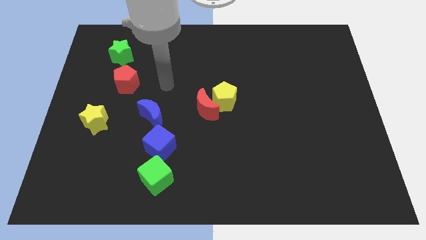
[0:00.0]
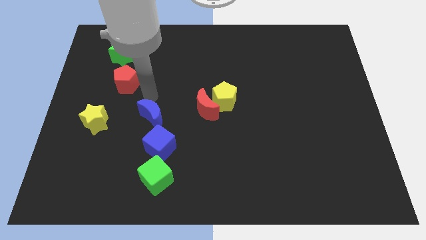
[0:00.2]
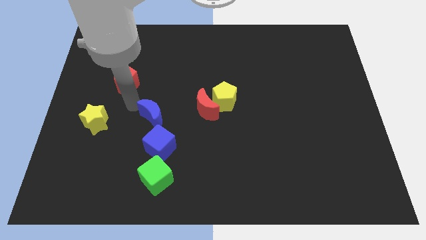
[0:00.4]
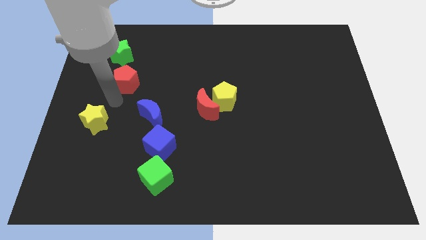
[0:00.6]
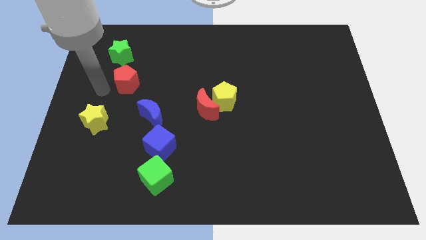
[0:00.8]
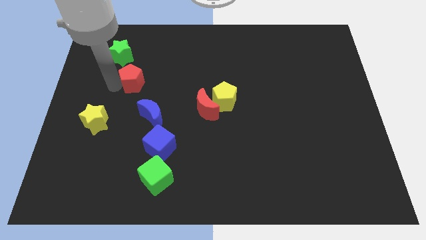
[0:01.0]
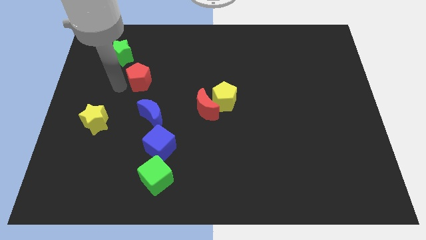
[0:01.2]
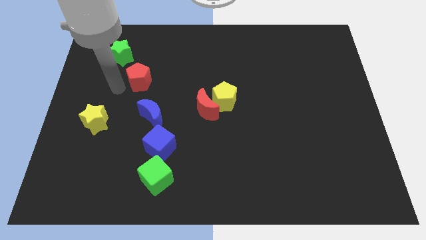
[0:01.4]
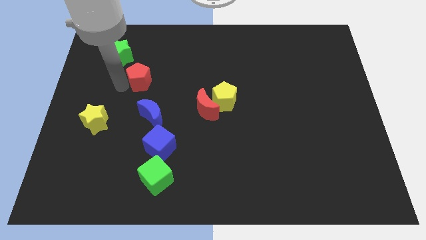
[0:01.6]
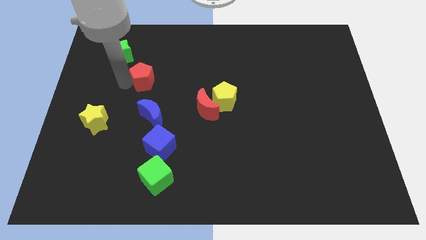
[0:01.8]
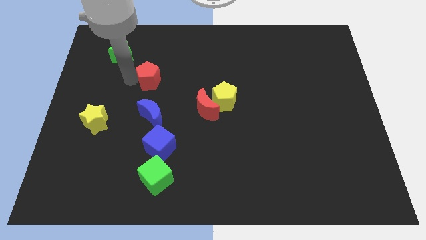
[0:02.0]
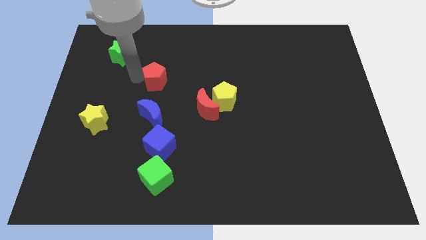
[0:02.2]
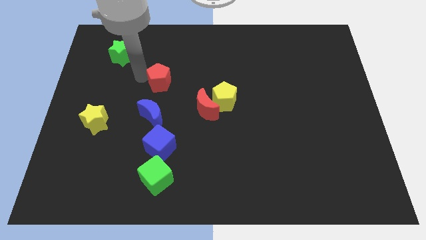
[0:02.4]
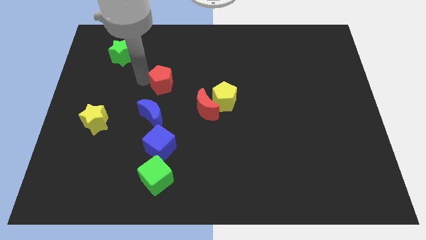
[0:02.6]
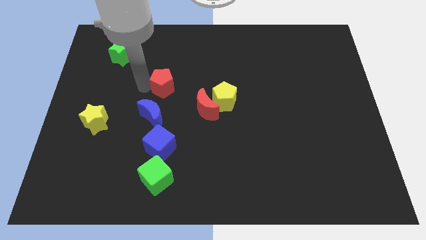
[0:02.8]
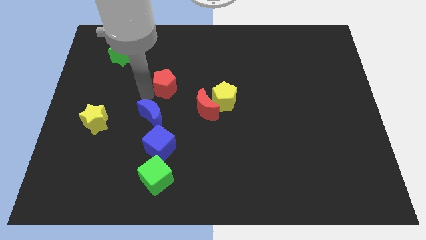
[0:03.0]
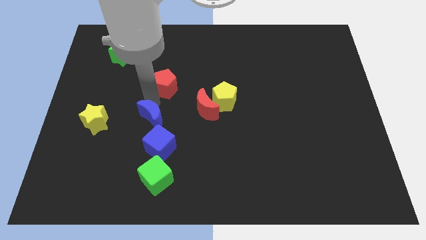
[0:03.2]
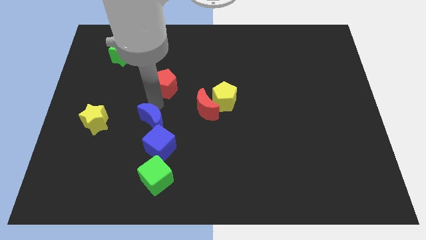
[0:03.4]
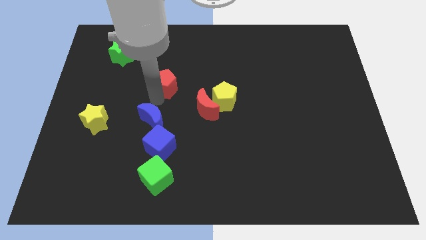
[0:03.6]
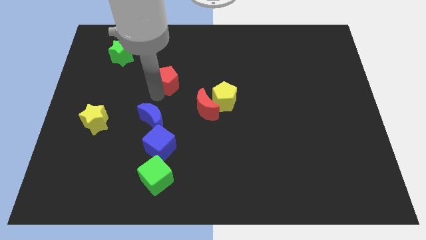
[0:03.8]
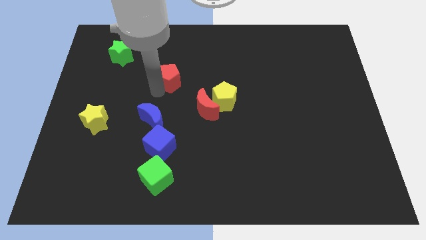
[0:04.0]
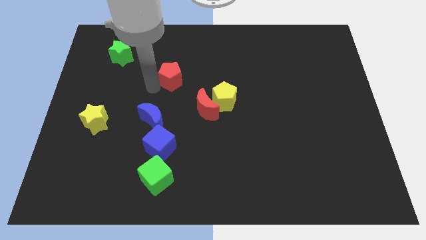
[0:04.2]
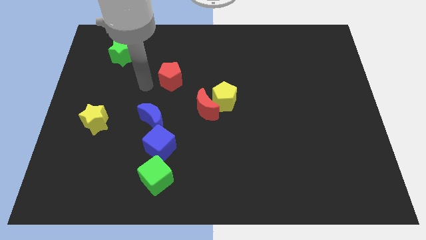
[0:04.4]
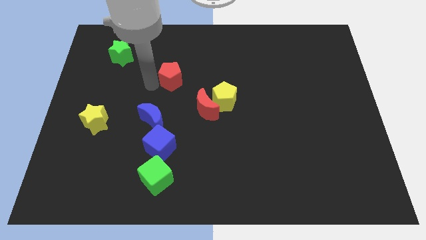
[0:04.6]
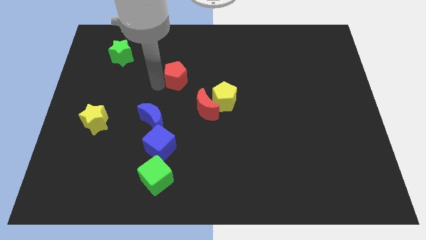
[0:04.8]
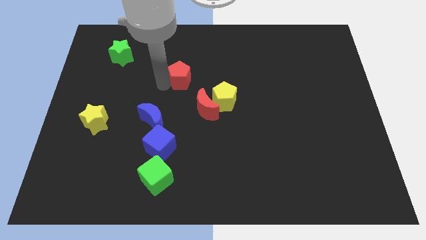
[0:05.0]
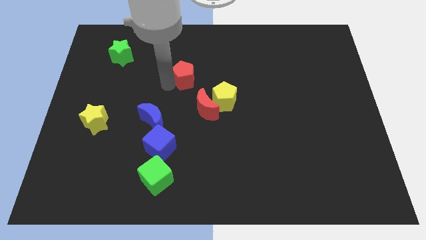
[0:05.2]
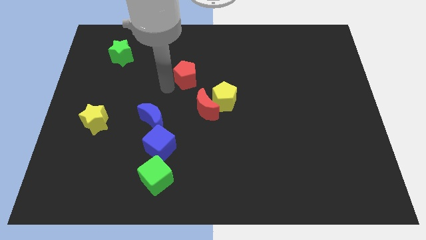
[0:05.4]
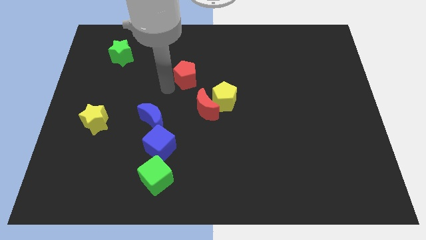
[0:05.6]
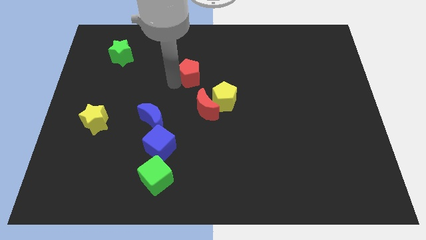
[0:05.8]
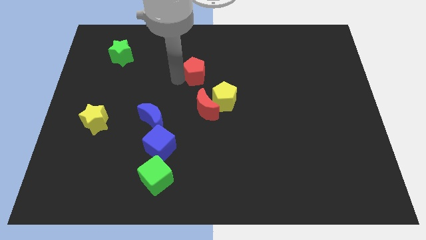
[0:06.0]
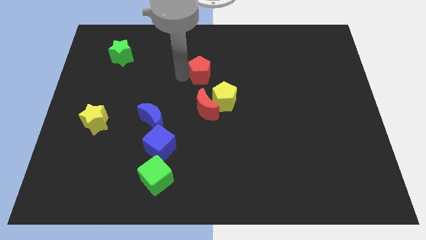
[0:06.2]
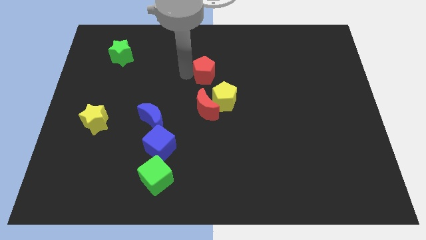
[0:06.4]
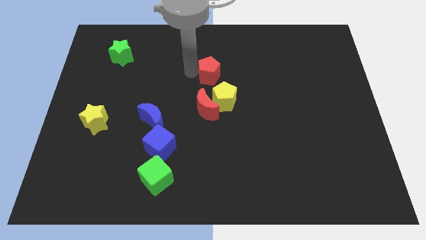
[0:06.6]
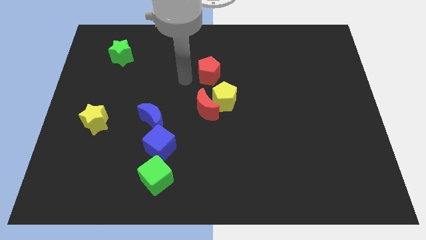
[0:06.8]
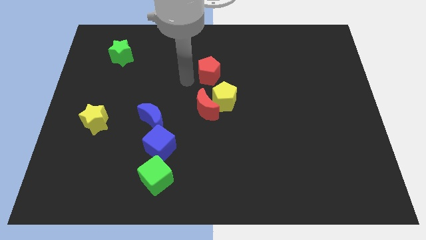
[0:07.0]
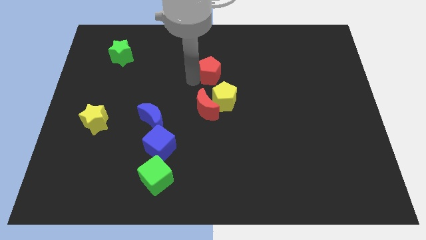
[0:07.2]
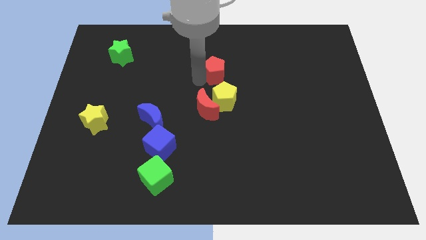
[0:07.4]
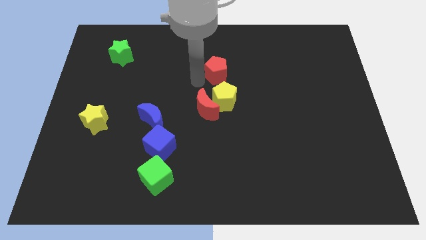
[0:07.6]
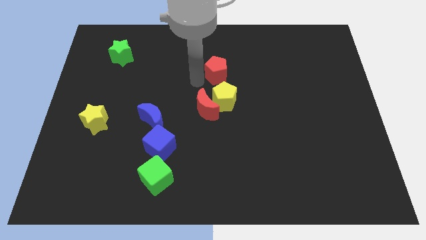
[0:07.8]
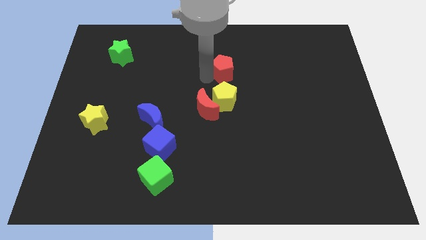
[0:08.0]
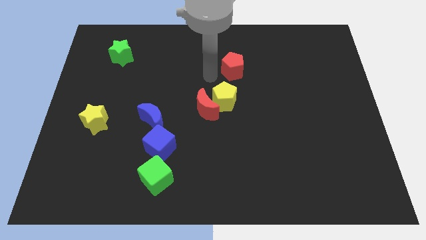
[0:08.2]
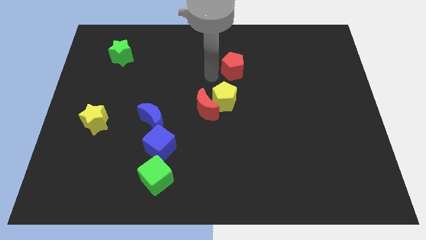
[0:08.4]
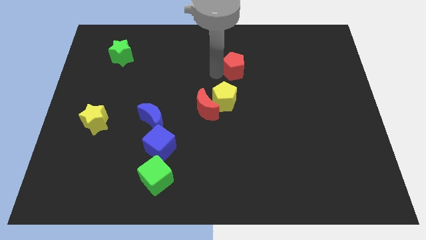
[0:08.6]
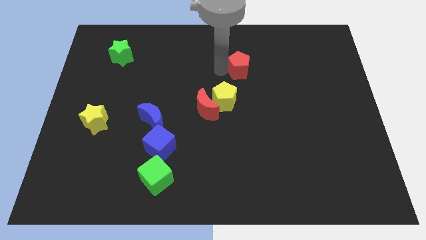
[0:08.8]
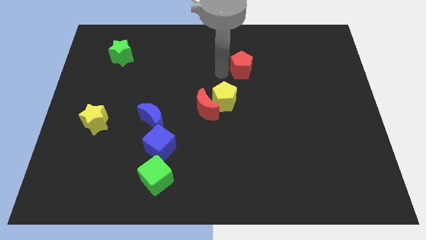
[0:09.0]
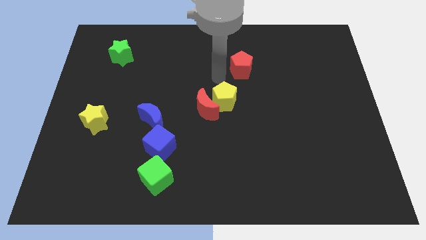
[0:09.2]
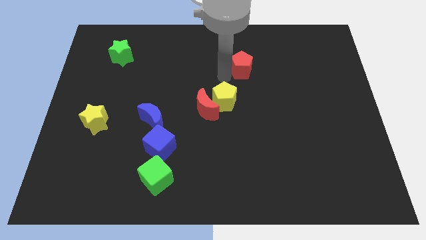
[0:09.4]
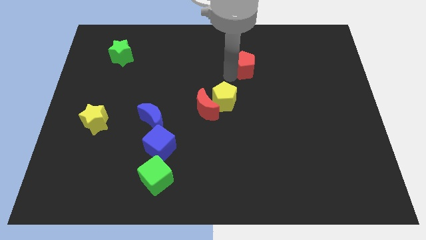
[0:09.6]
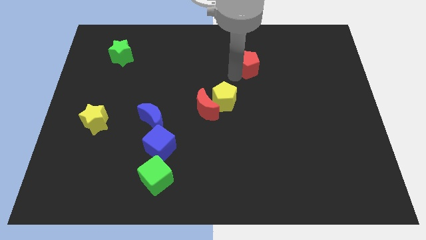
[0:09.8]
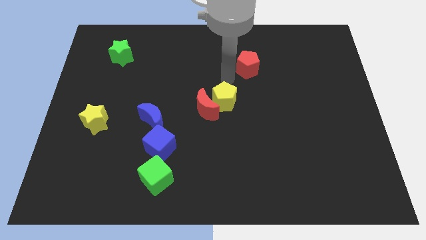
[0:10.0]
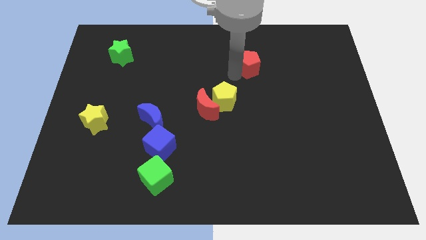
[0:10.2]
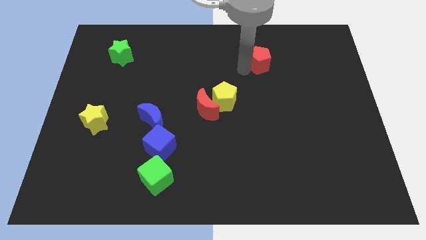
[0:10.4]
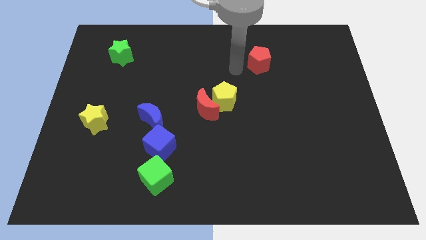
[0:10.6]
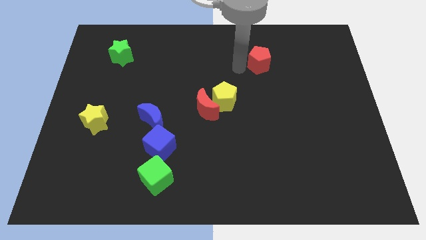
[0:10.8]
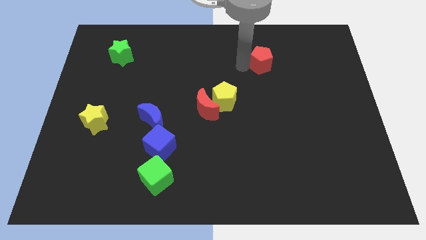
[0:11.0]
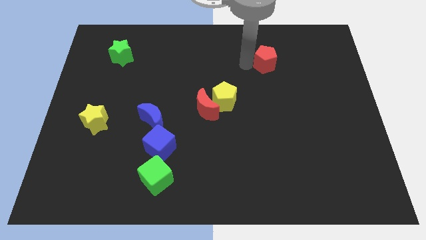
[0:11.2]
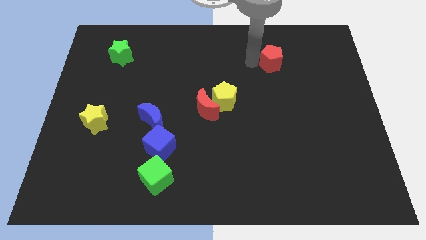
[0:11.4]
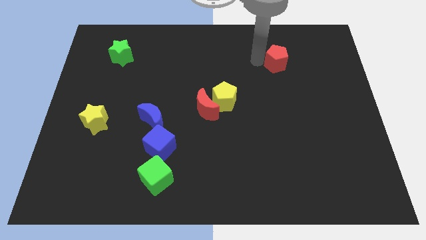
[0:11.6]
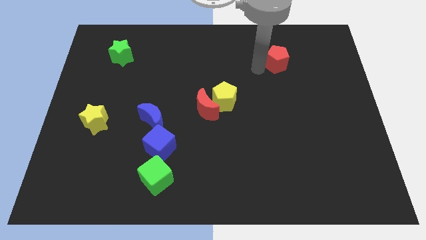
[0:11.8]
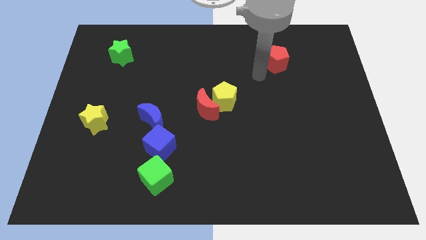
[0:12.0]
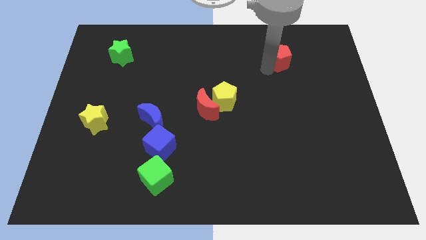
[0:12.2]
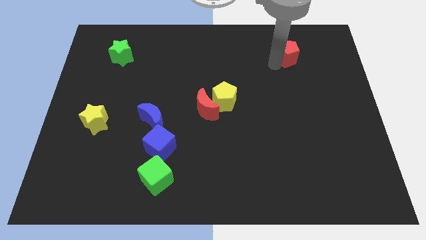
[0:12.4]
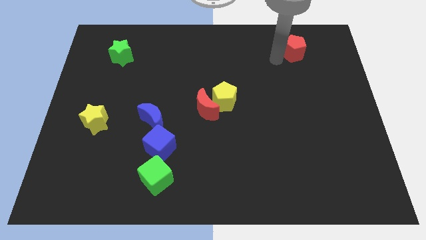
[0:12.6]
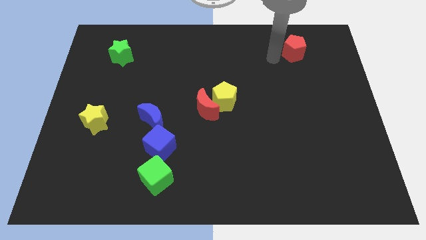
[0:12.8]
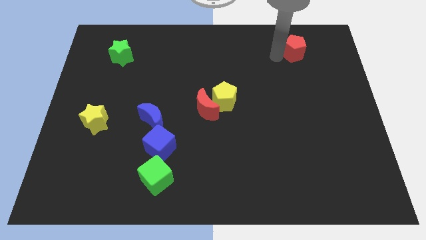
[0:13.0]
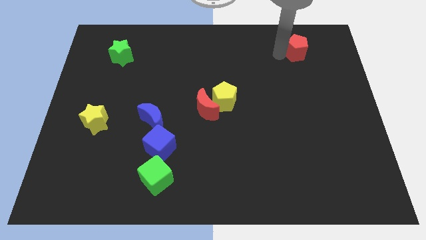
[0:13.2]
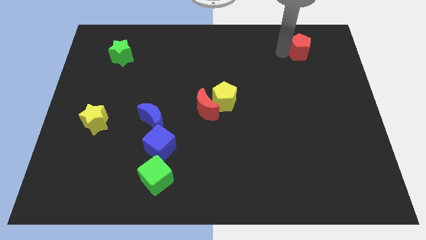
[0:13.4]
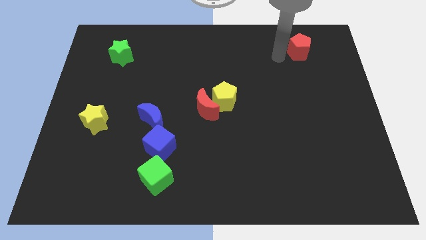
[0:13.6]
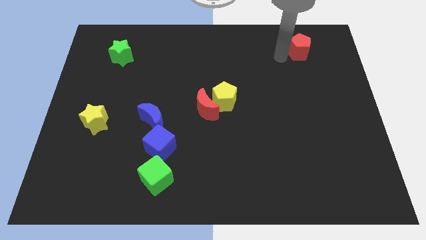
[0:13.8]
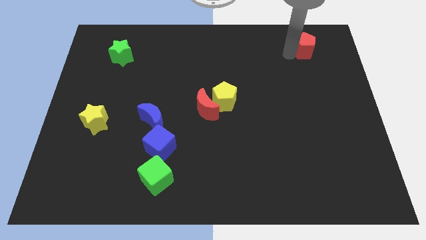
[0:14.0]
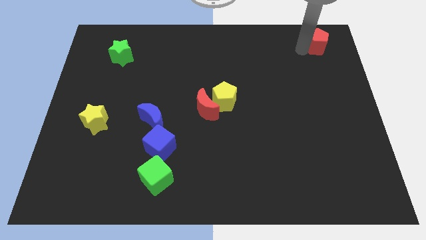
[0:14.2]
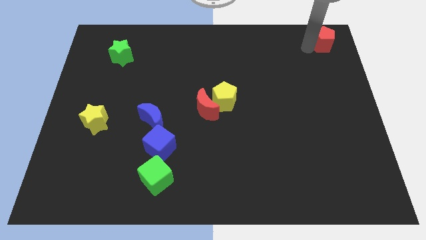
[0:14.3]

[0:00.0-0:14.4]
put the red pentagon to the top right
